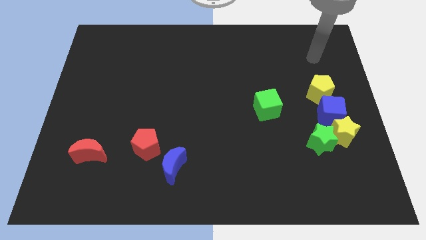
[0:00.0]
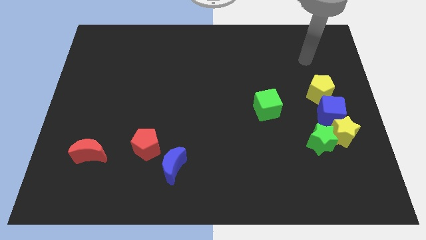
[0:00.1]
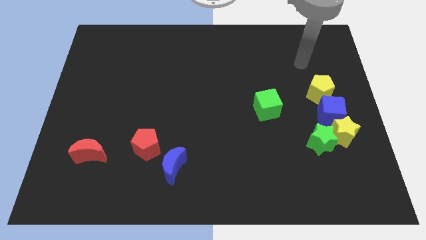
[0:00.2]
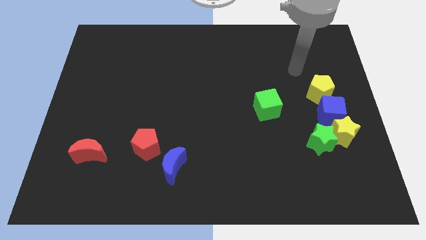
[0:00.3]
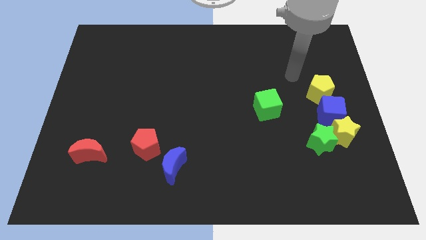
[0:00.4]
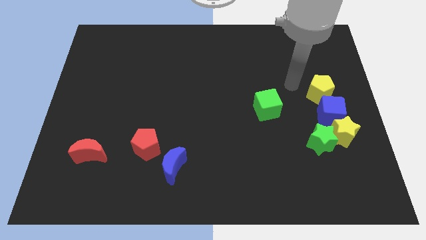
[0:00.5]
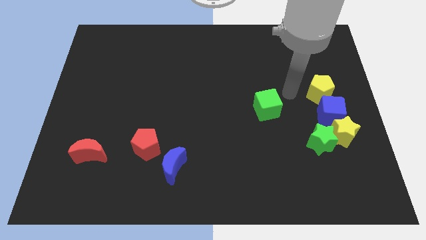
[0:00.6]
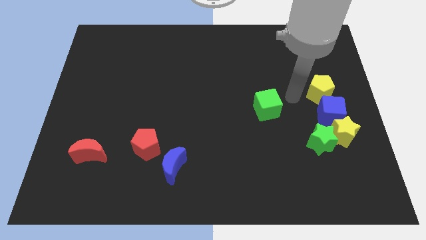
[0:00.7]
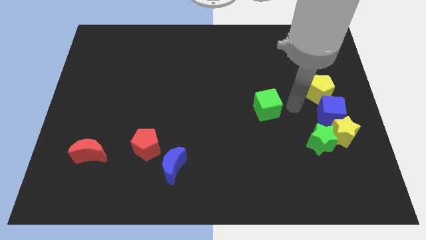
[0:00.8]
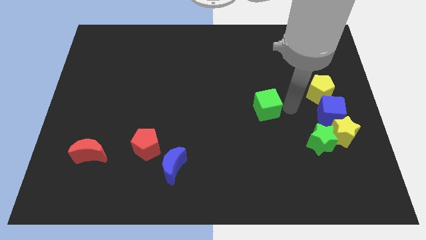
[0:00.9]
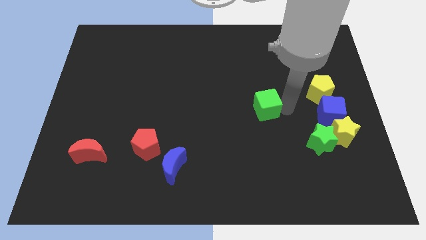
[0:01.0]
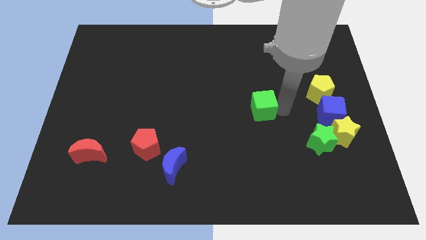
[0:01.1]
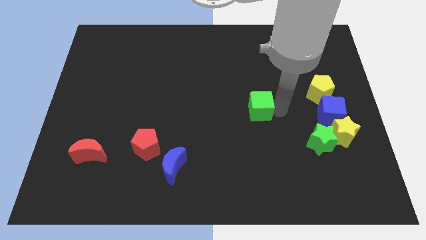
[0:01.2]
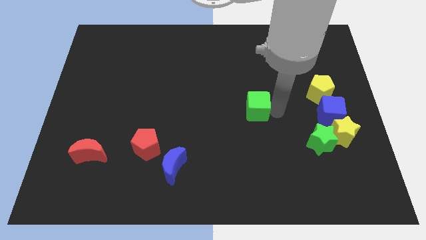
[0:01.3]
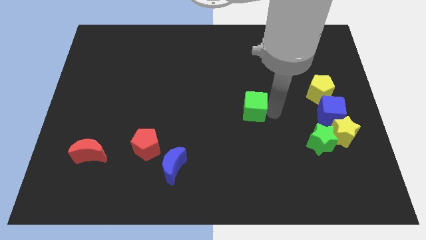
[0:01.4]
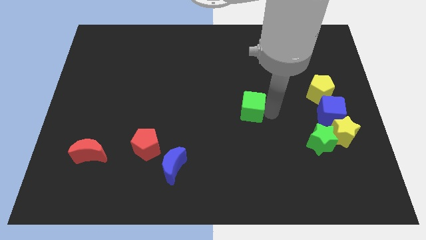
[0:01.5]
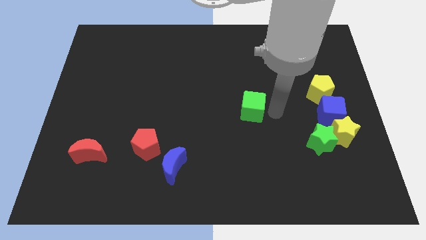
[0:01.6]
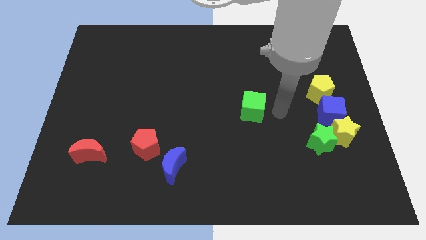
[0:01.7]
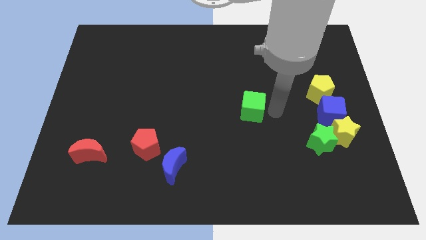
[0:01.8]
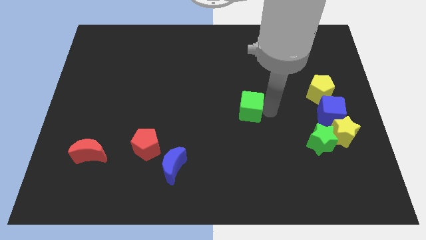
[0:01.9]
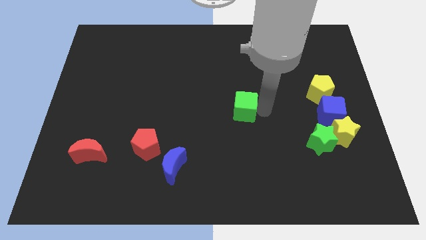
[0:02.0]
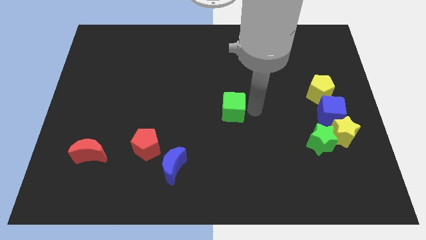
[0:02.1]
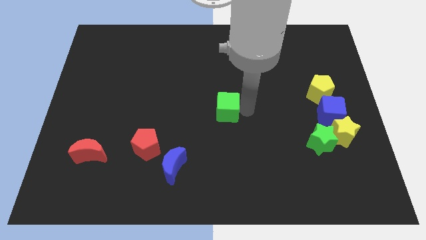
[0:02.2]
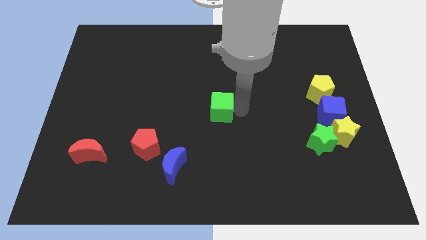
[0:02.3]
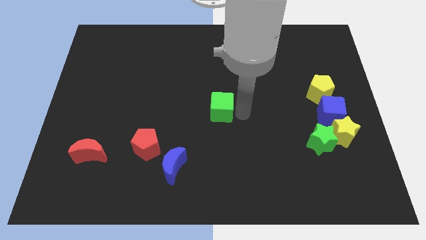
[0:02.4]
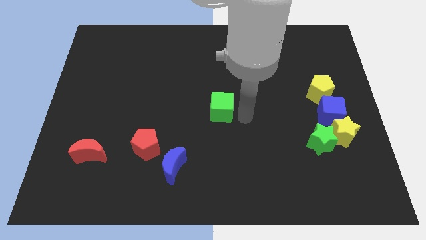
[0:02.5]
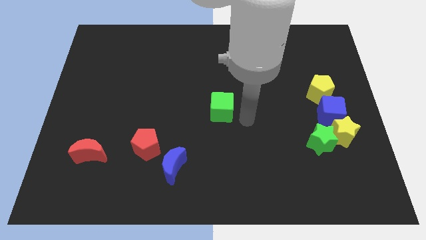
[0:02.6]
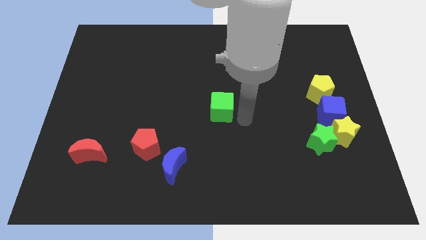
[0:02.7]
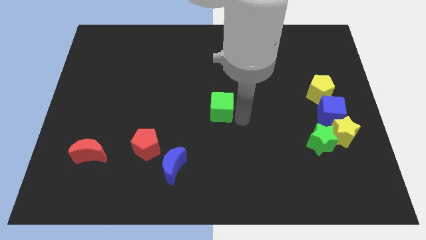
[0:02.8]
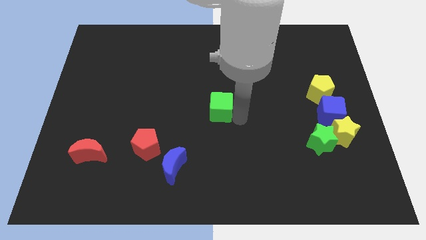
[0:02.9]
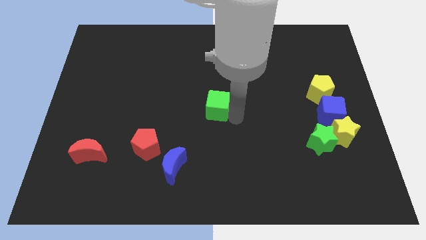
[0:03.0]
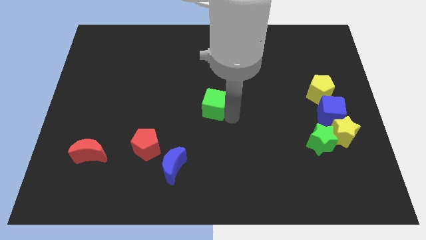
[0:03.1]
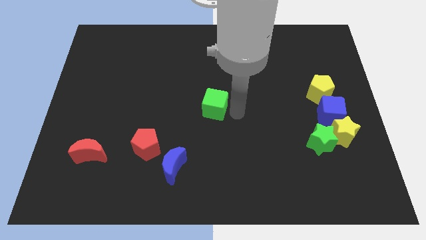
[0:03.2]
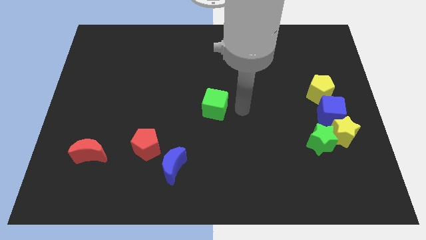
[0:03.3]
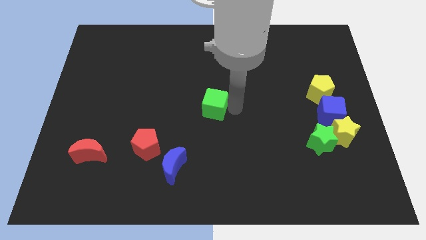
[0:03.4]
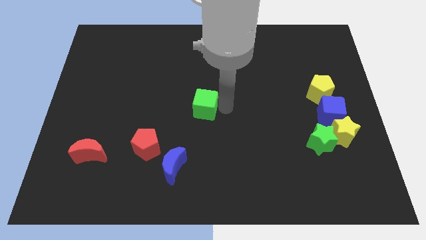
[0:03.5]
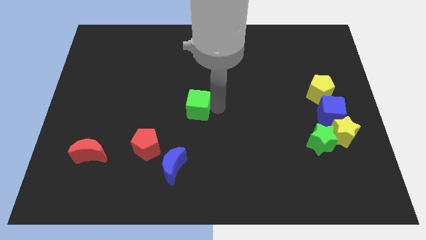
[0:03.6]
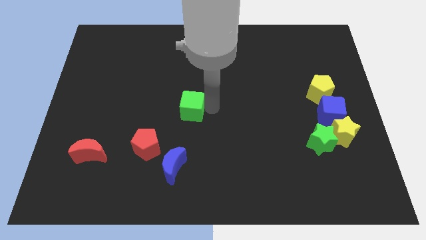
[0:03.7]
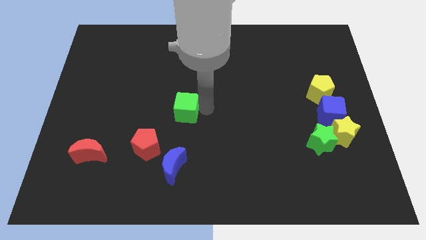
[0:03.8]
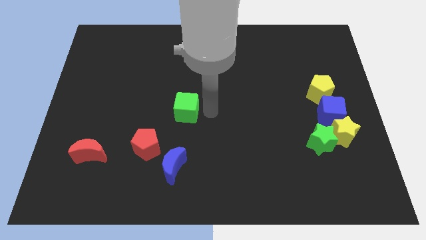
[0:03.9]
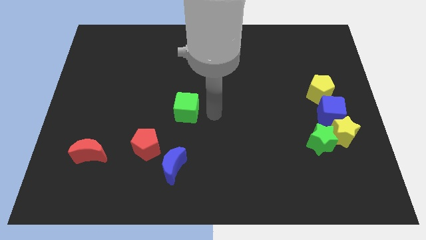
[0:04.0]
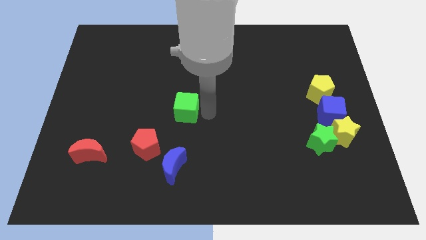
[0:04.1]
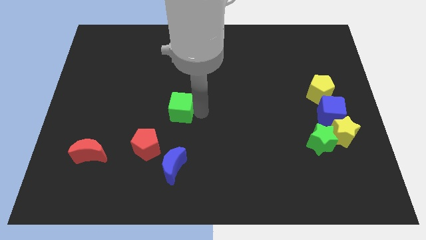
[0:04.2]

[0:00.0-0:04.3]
move the green cube left

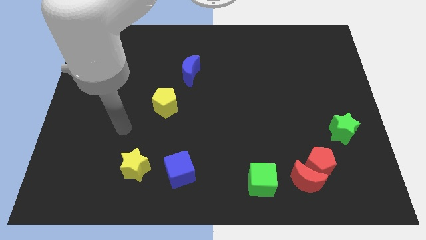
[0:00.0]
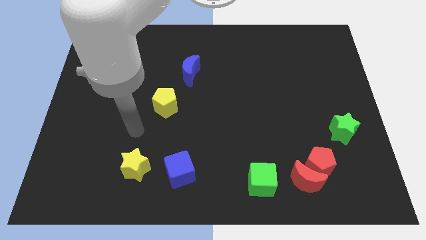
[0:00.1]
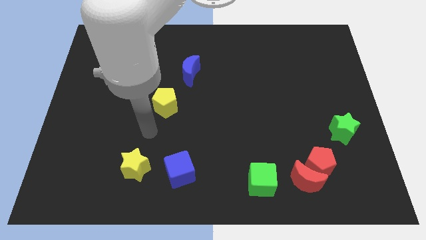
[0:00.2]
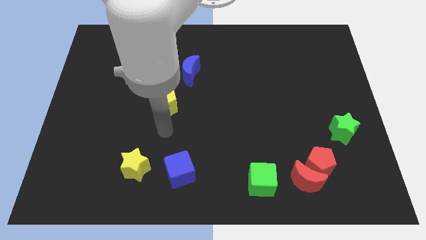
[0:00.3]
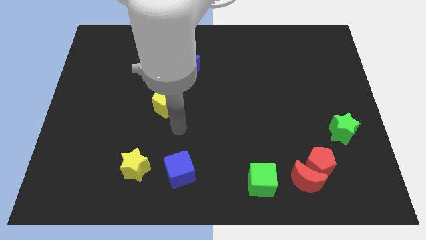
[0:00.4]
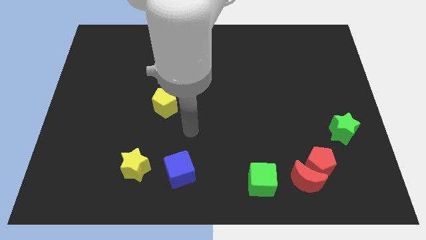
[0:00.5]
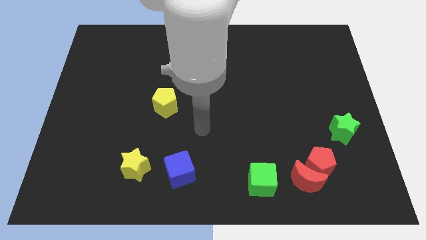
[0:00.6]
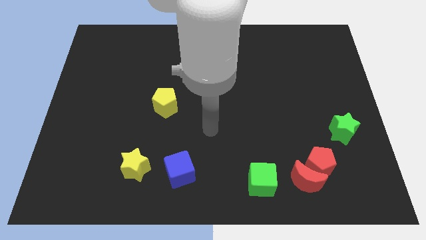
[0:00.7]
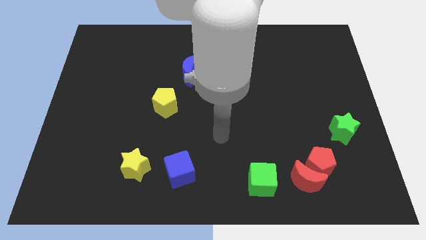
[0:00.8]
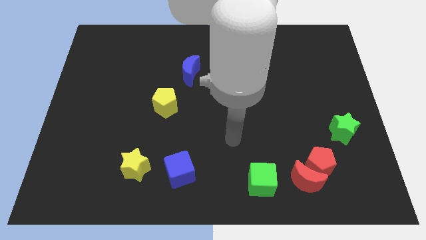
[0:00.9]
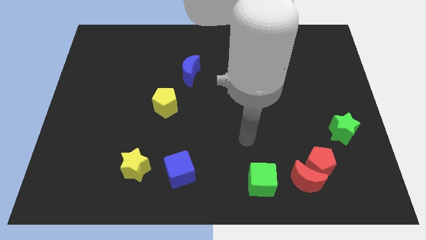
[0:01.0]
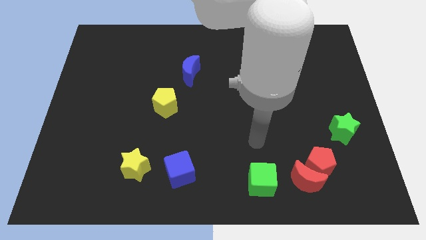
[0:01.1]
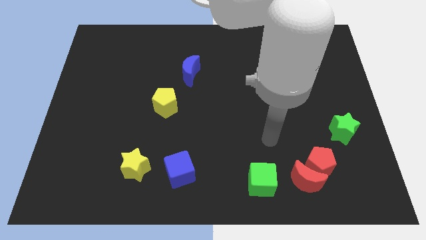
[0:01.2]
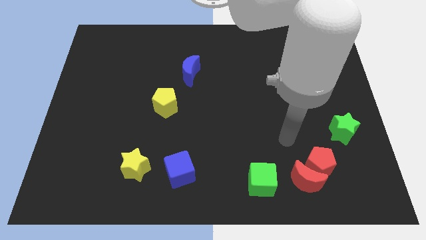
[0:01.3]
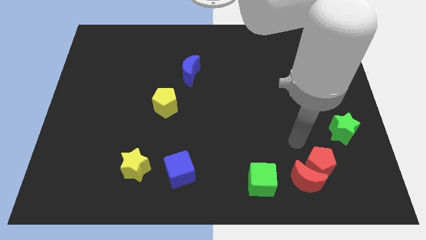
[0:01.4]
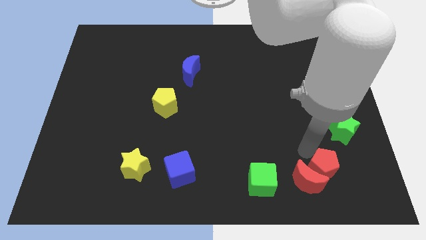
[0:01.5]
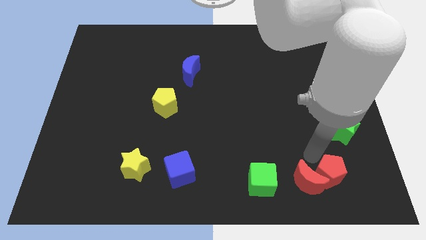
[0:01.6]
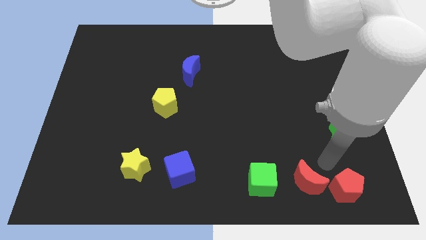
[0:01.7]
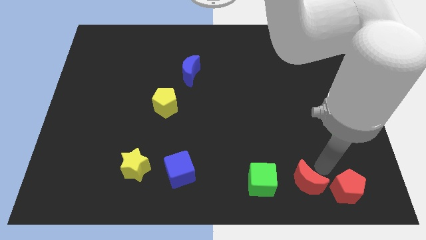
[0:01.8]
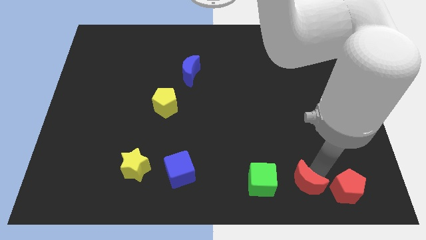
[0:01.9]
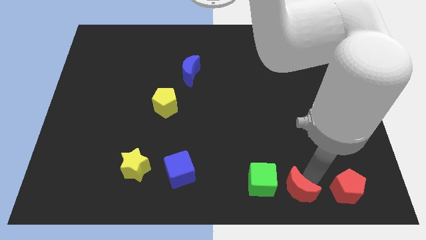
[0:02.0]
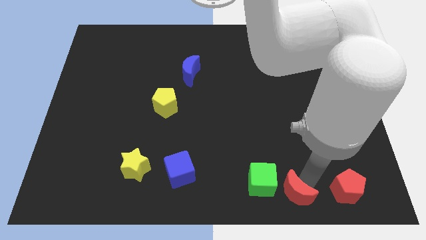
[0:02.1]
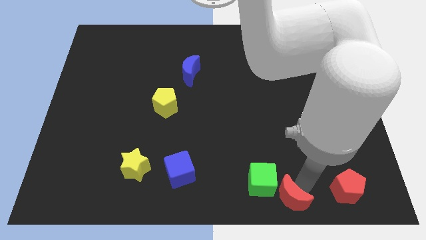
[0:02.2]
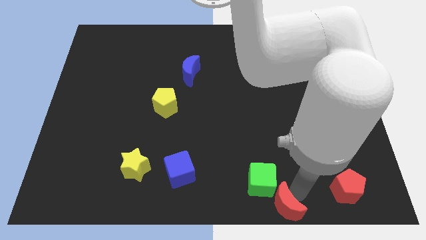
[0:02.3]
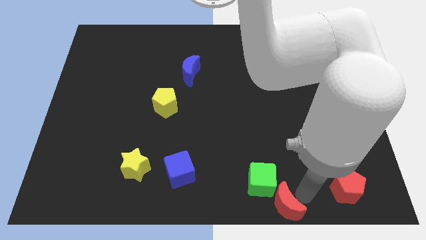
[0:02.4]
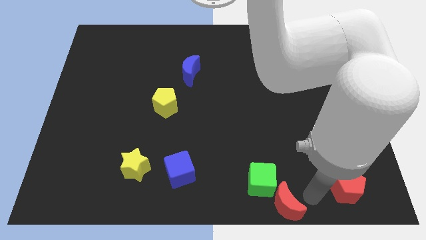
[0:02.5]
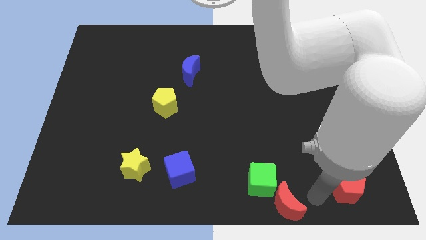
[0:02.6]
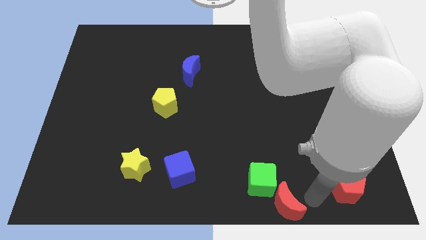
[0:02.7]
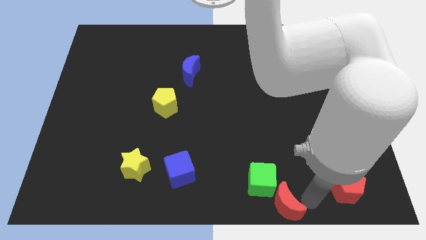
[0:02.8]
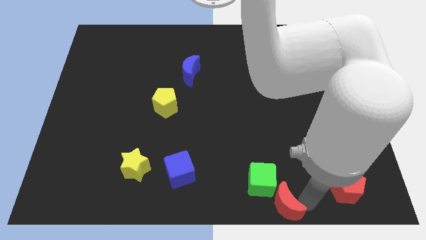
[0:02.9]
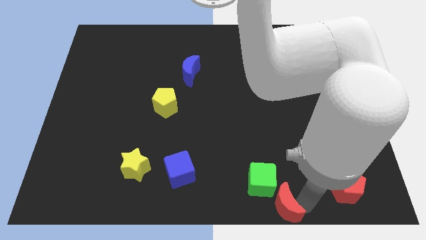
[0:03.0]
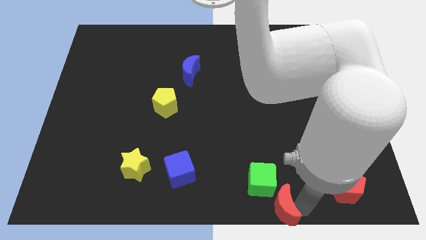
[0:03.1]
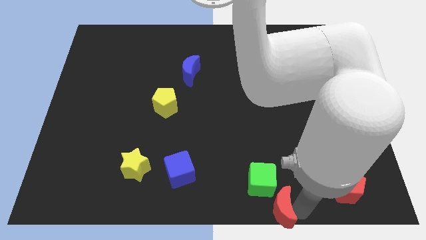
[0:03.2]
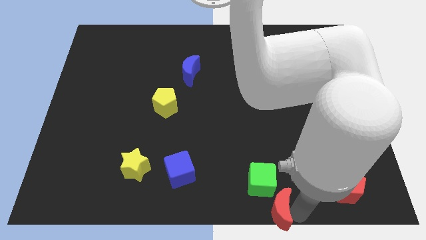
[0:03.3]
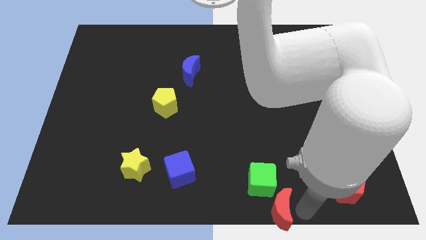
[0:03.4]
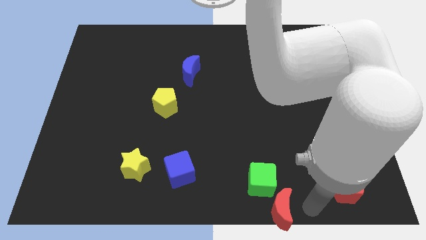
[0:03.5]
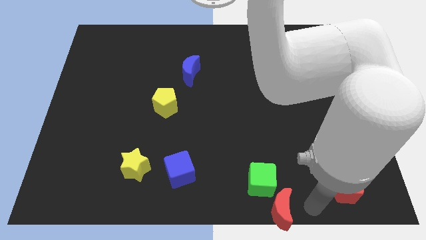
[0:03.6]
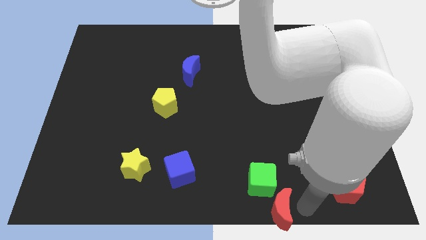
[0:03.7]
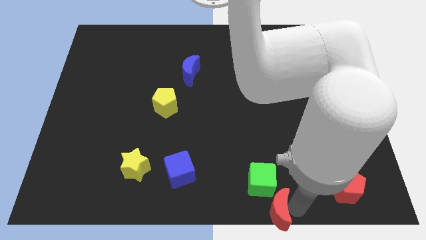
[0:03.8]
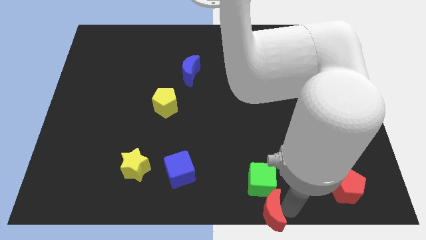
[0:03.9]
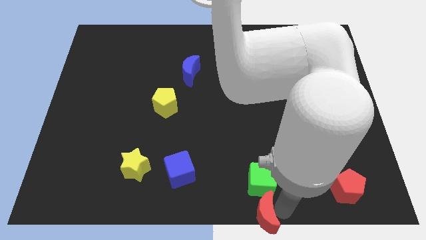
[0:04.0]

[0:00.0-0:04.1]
slightly slide the red moon left
